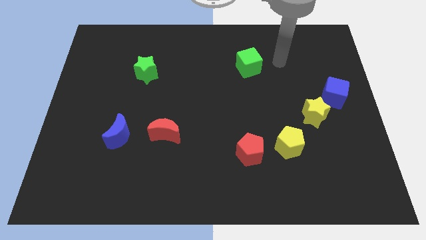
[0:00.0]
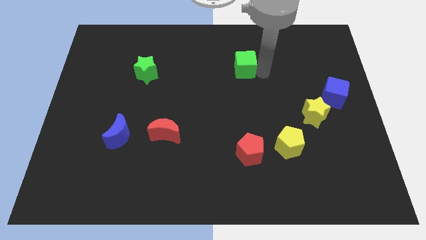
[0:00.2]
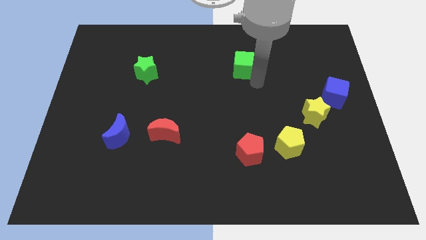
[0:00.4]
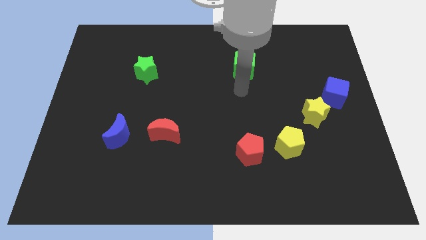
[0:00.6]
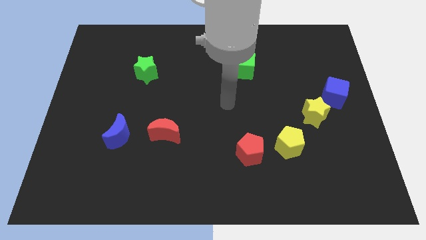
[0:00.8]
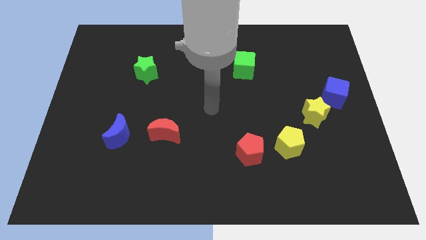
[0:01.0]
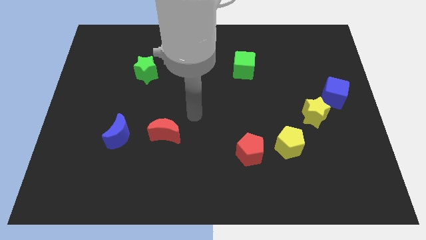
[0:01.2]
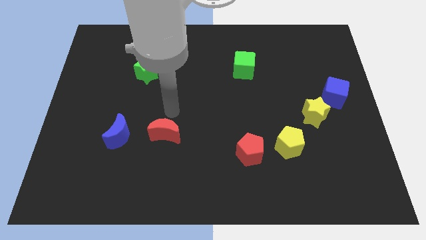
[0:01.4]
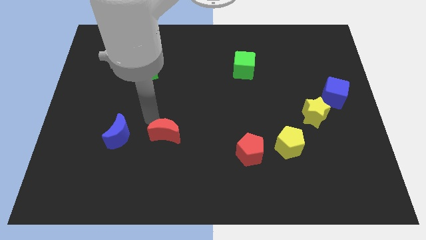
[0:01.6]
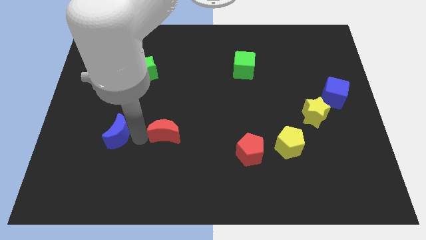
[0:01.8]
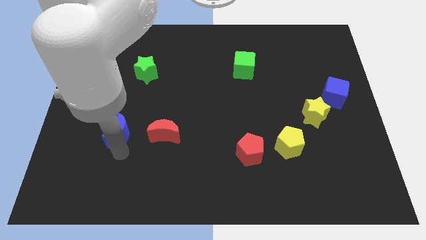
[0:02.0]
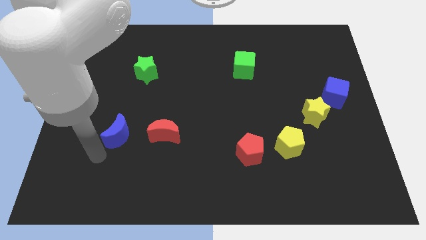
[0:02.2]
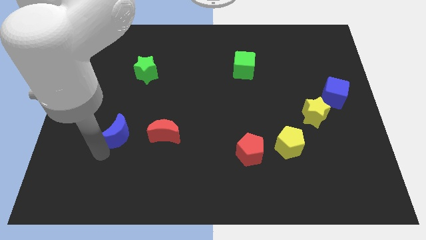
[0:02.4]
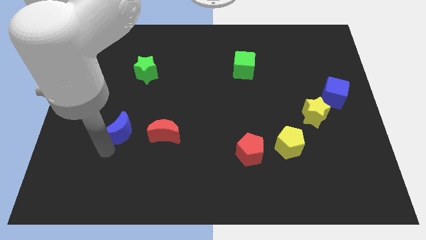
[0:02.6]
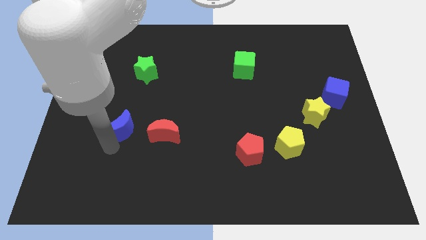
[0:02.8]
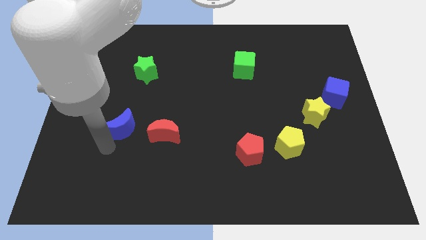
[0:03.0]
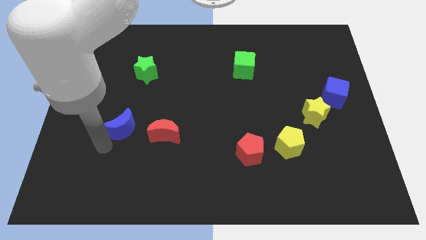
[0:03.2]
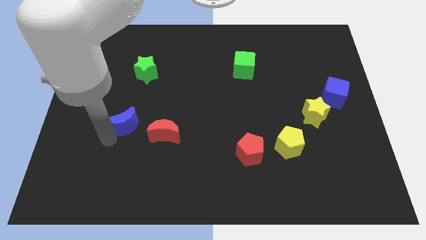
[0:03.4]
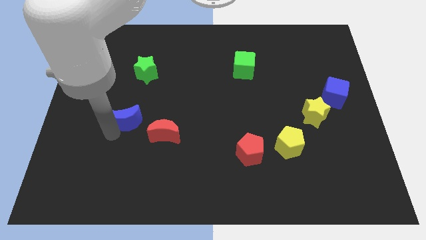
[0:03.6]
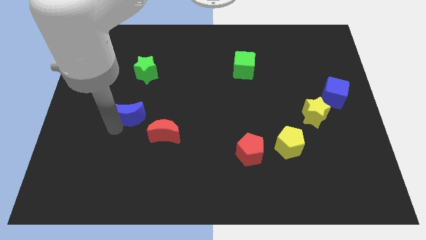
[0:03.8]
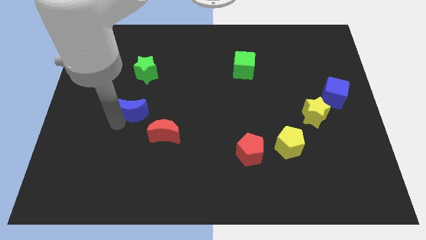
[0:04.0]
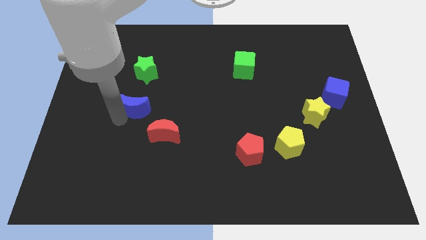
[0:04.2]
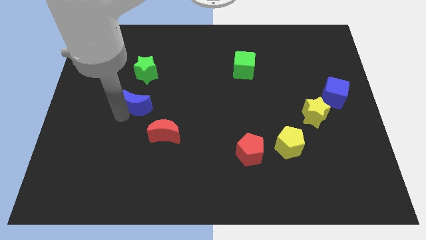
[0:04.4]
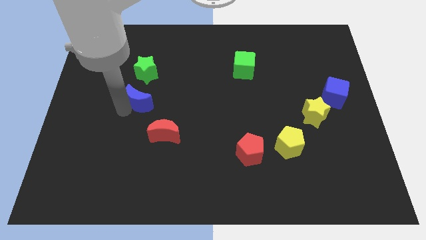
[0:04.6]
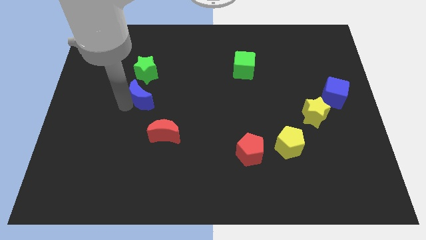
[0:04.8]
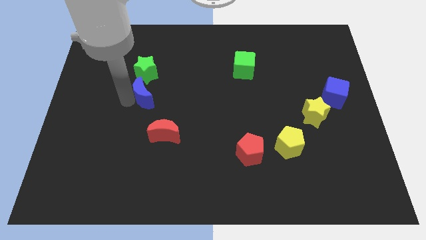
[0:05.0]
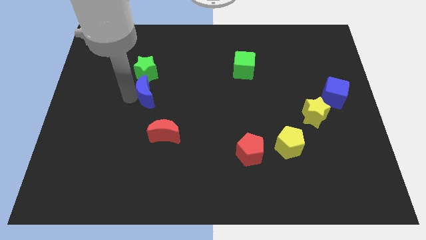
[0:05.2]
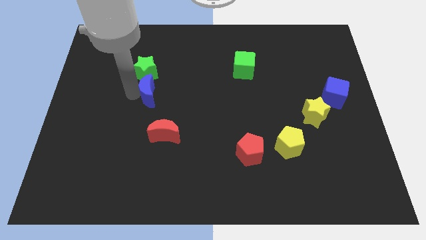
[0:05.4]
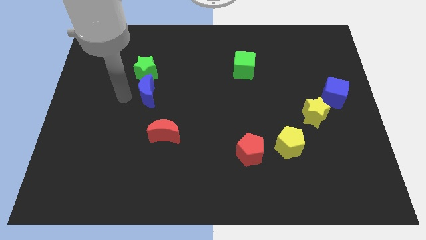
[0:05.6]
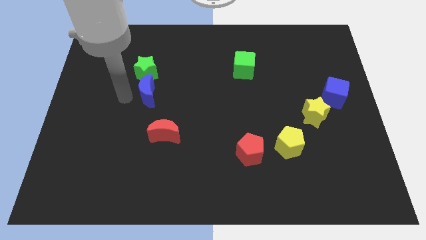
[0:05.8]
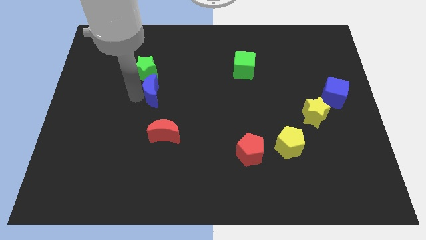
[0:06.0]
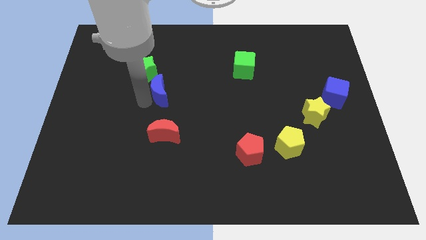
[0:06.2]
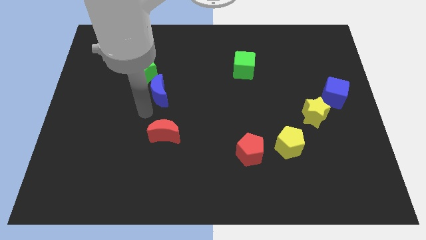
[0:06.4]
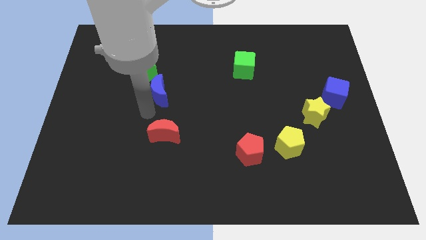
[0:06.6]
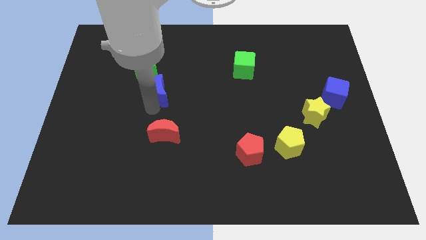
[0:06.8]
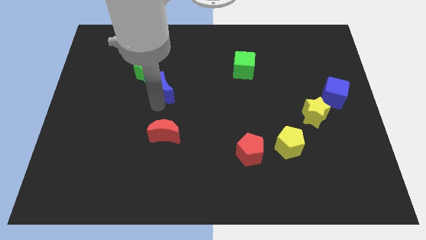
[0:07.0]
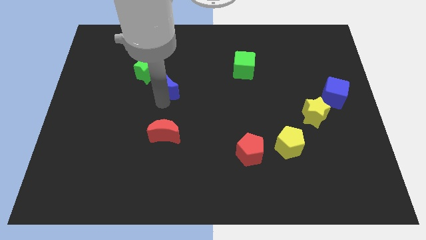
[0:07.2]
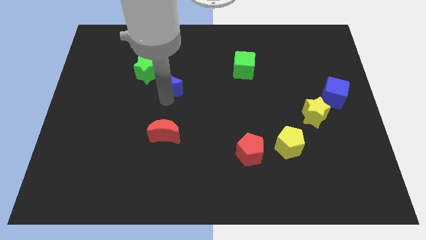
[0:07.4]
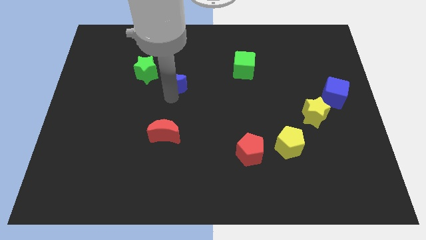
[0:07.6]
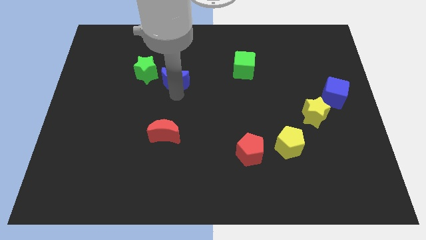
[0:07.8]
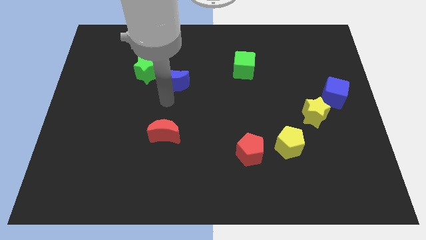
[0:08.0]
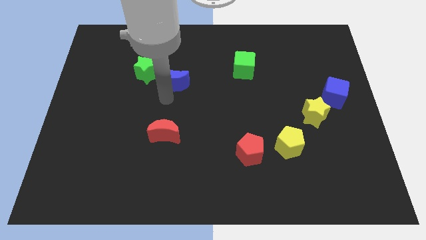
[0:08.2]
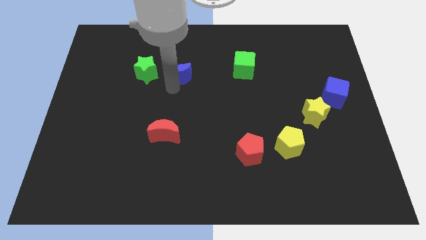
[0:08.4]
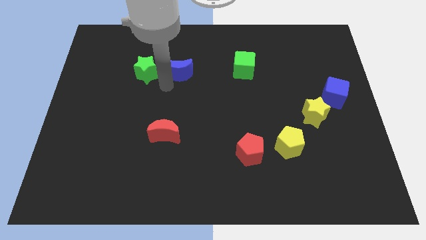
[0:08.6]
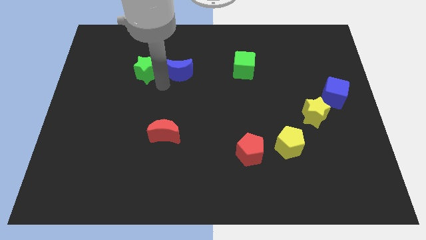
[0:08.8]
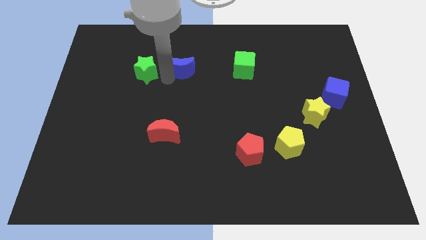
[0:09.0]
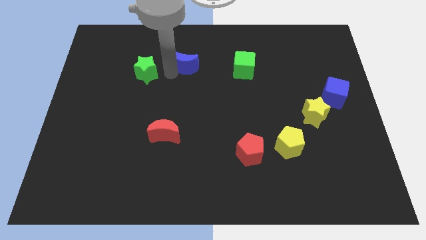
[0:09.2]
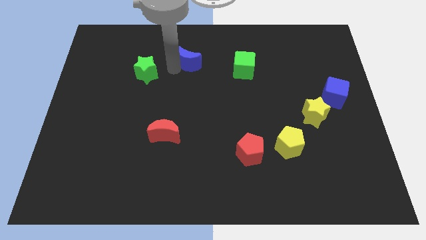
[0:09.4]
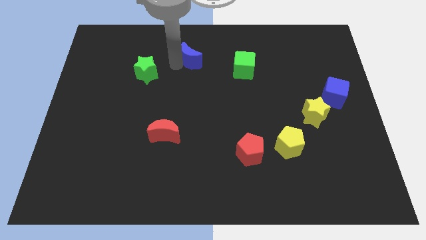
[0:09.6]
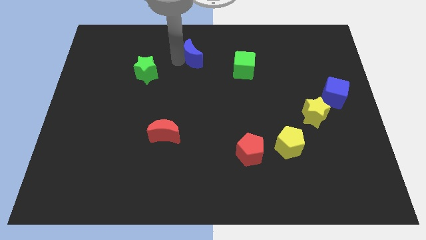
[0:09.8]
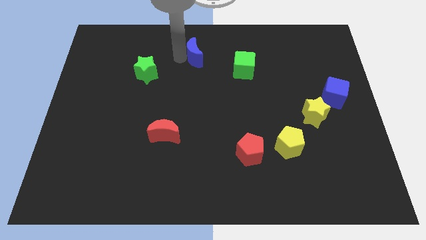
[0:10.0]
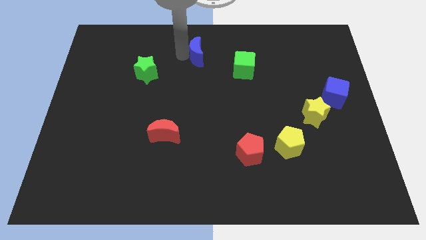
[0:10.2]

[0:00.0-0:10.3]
move the blue moon to the top

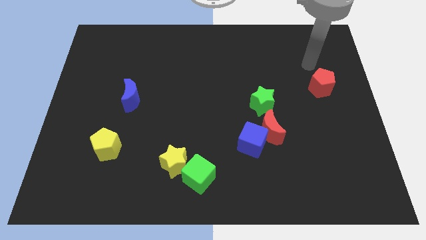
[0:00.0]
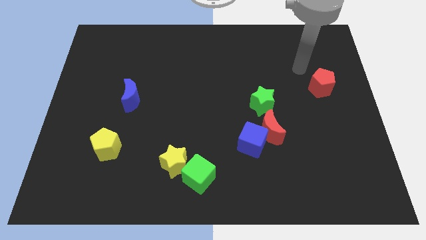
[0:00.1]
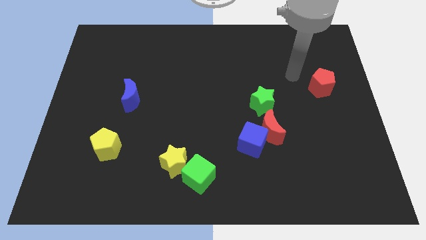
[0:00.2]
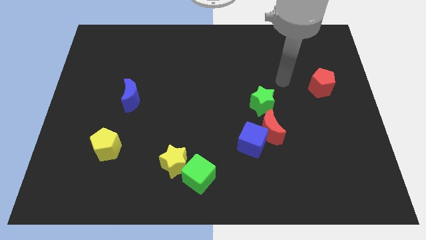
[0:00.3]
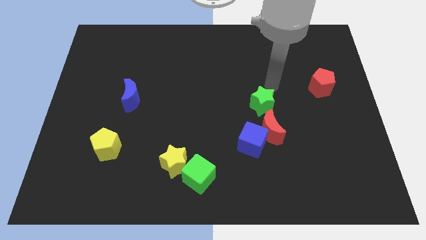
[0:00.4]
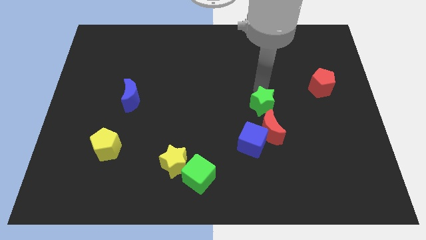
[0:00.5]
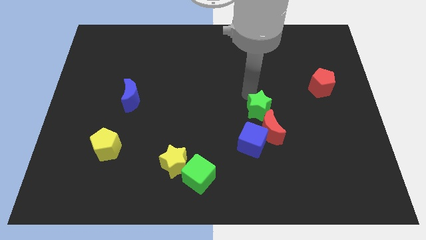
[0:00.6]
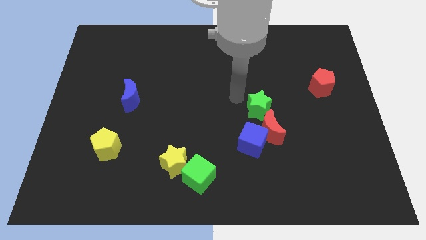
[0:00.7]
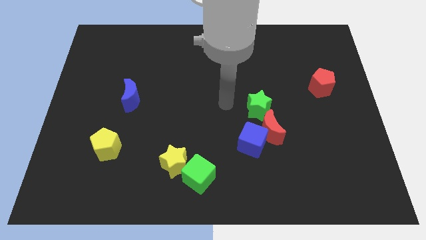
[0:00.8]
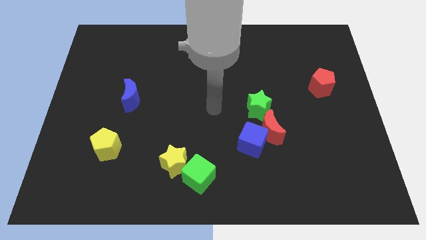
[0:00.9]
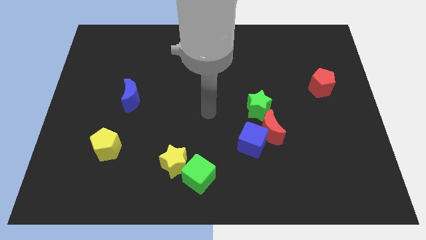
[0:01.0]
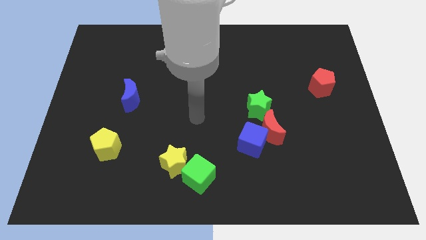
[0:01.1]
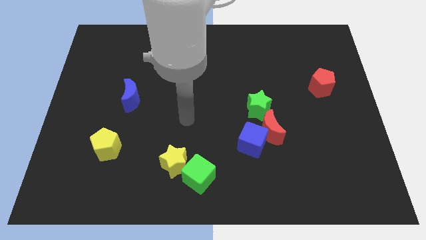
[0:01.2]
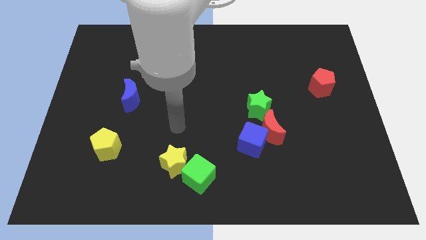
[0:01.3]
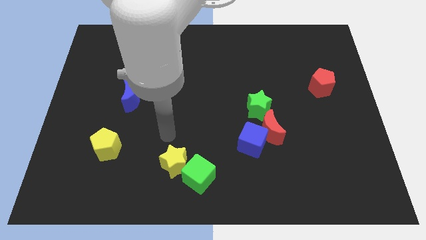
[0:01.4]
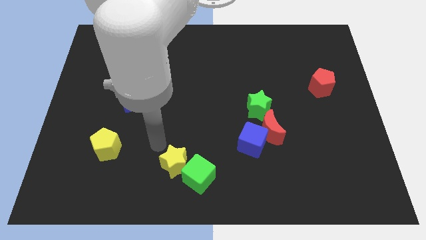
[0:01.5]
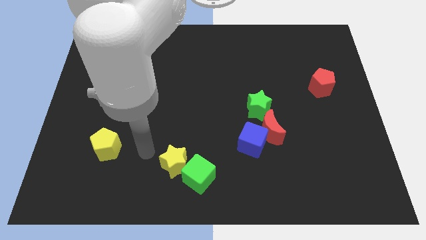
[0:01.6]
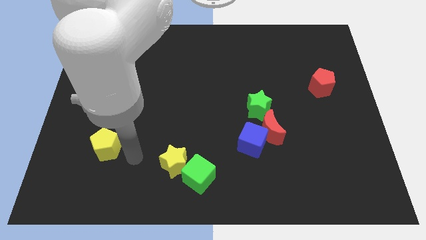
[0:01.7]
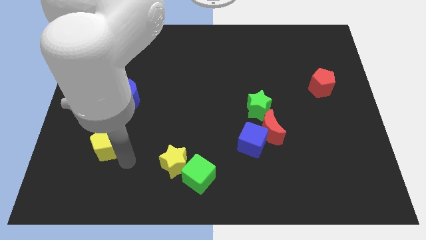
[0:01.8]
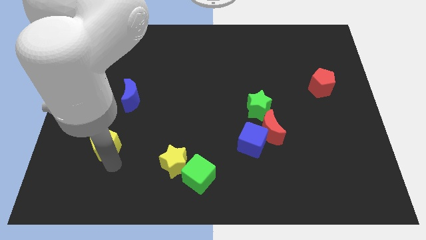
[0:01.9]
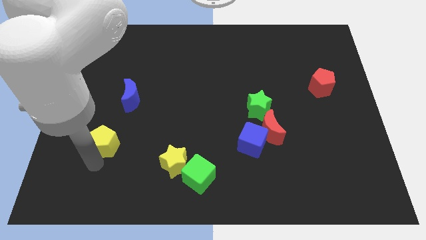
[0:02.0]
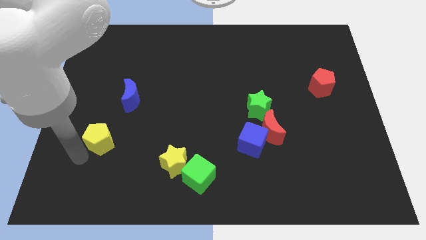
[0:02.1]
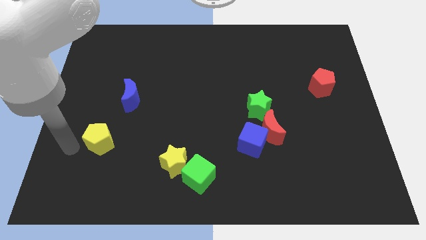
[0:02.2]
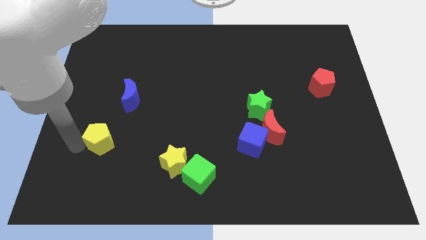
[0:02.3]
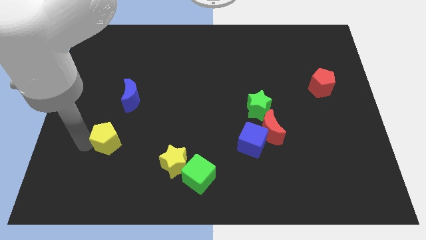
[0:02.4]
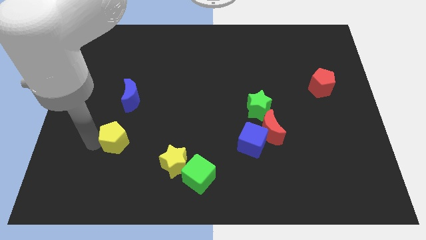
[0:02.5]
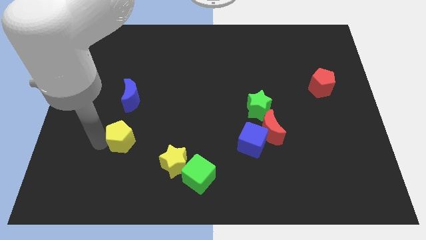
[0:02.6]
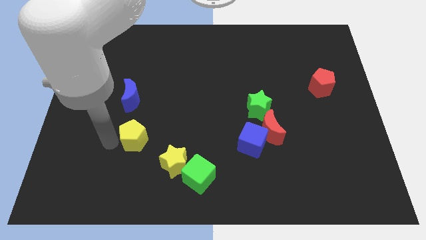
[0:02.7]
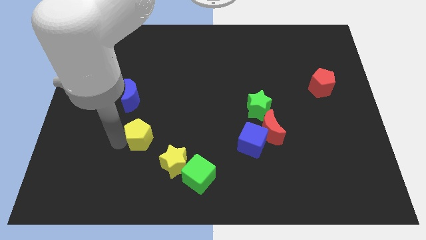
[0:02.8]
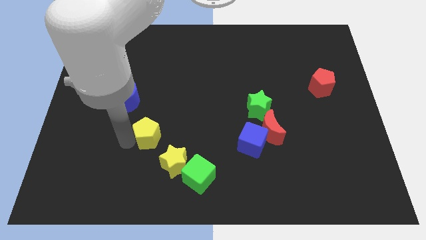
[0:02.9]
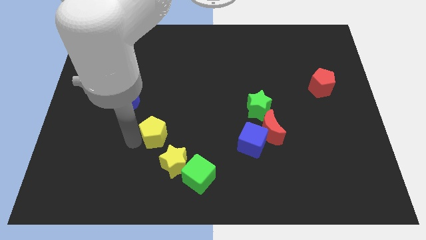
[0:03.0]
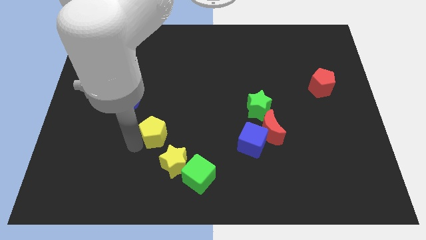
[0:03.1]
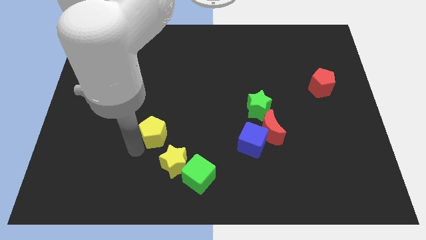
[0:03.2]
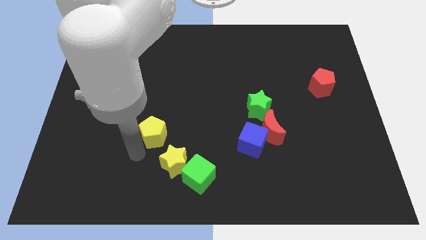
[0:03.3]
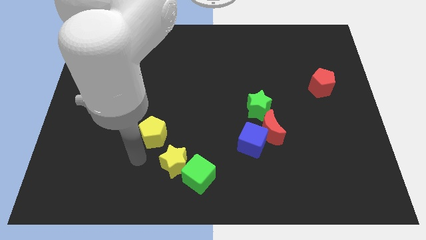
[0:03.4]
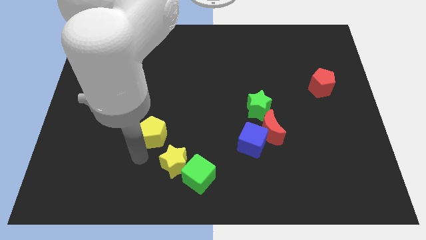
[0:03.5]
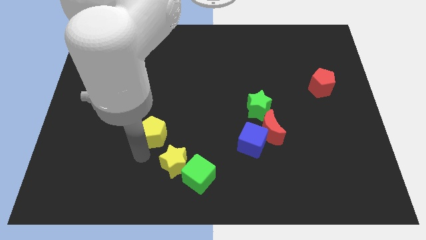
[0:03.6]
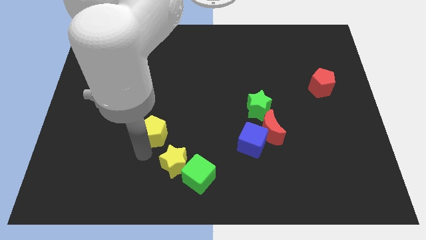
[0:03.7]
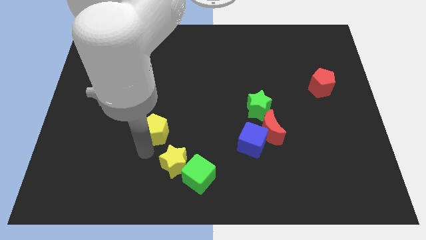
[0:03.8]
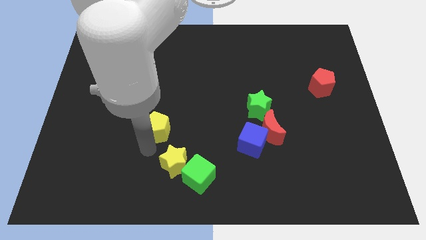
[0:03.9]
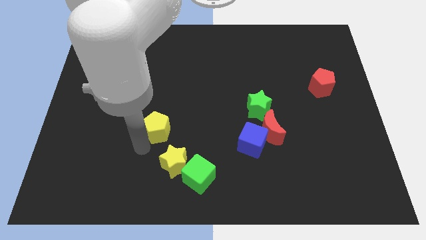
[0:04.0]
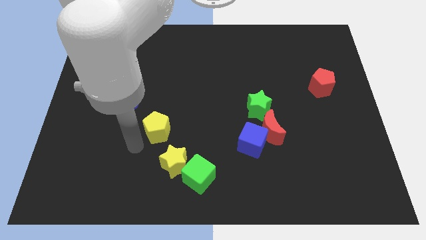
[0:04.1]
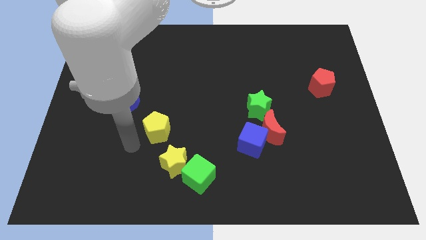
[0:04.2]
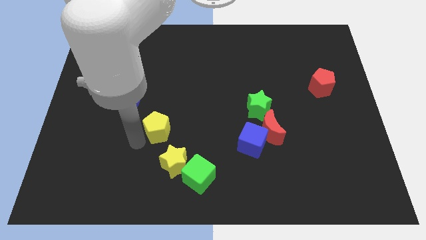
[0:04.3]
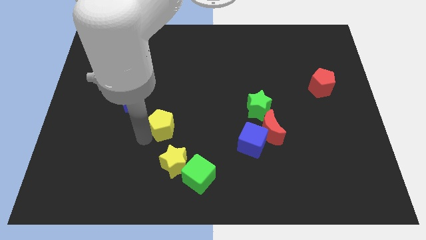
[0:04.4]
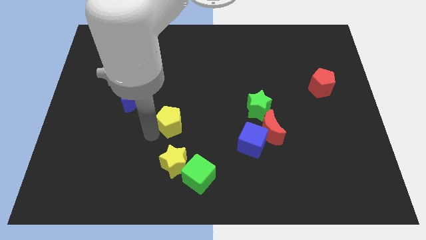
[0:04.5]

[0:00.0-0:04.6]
slide the yellow pentagon to the center of the board
